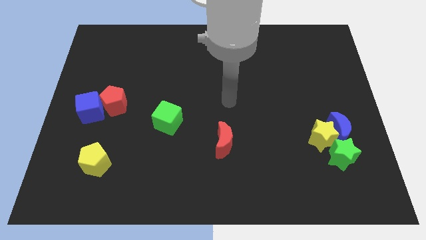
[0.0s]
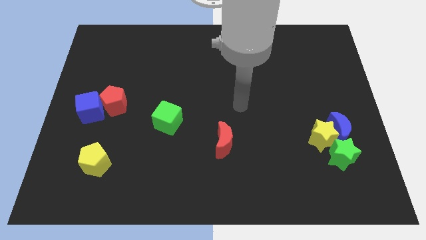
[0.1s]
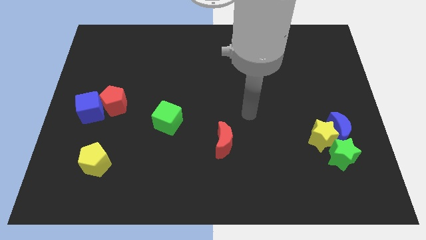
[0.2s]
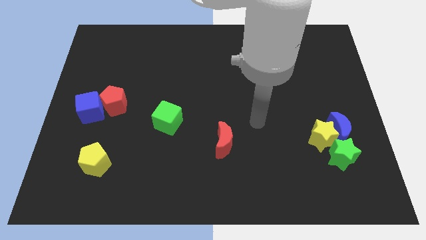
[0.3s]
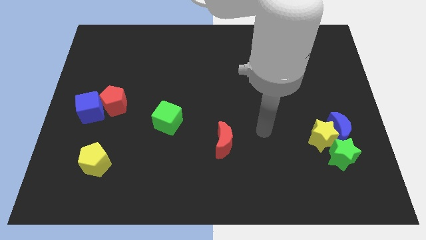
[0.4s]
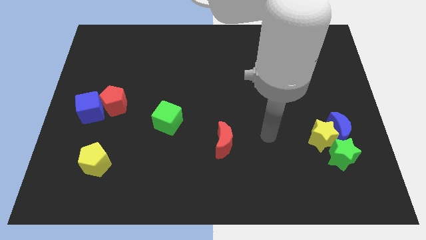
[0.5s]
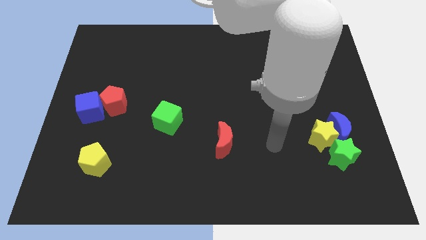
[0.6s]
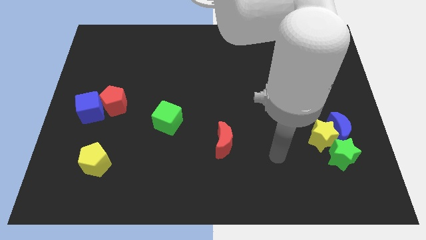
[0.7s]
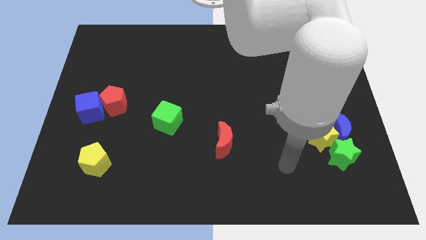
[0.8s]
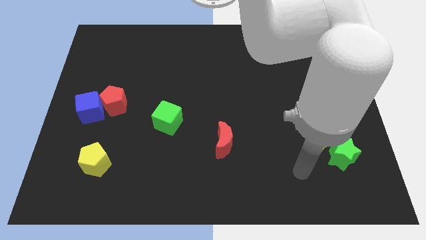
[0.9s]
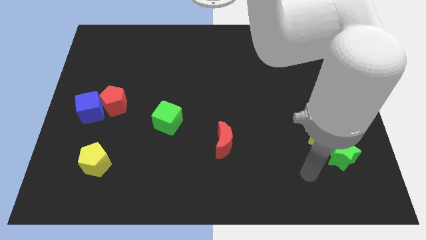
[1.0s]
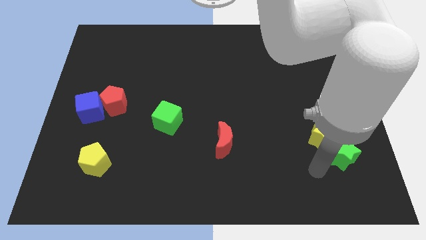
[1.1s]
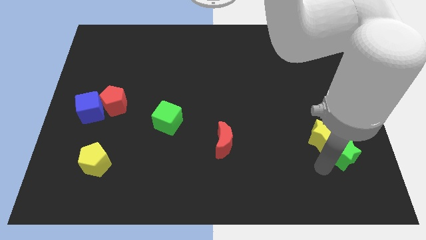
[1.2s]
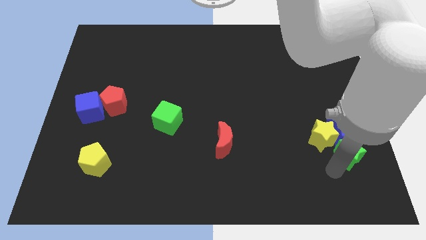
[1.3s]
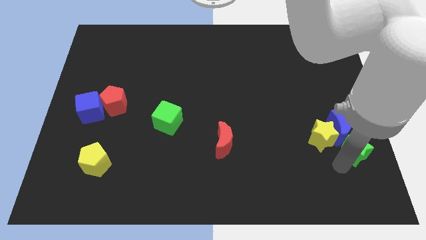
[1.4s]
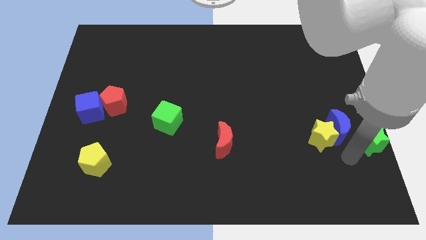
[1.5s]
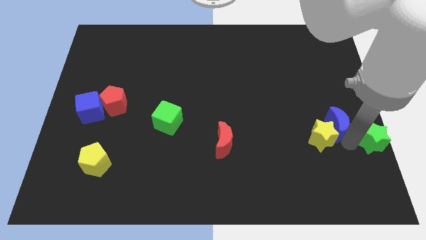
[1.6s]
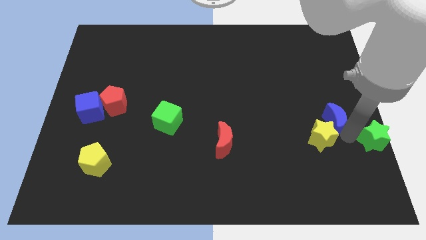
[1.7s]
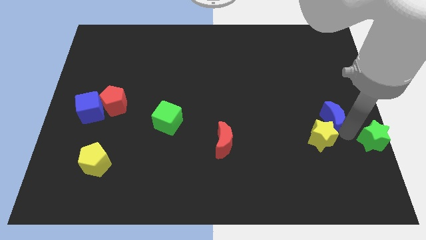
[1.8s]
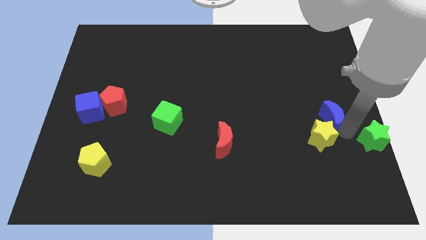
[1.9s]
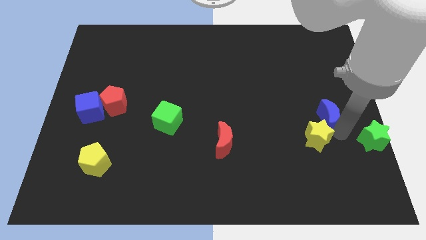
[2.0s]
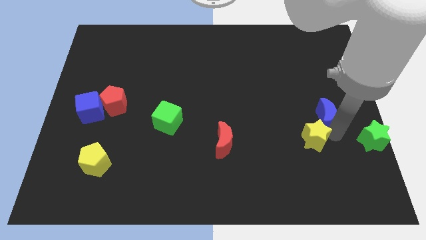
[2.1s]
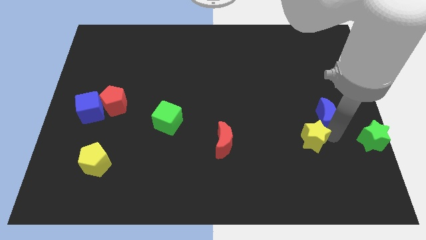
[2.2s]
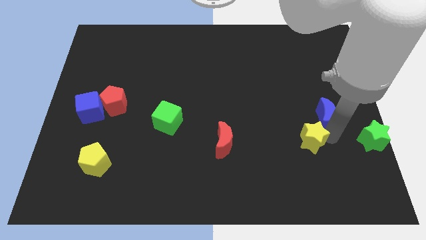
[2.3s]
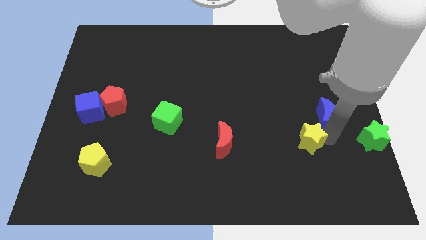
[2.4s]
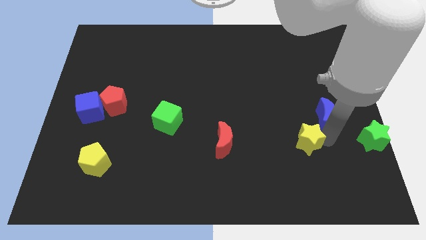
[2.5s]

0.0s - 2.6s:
separate the yellow star from the blue moon and green star

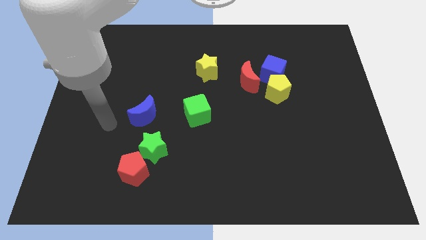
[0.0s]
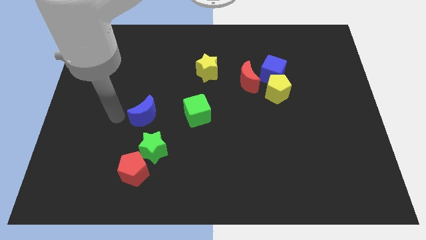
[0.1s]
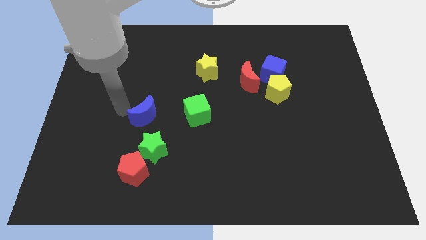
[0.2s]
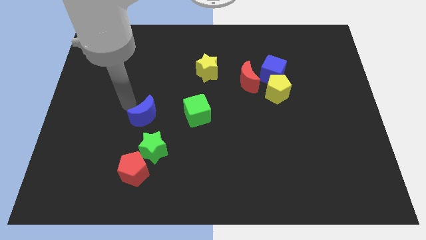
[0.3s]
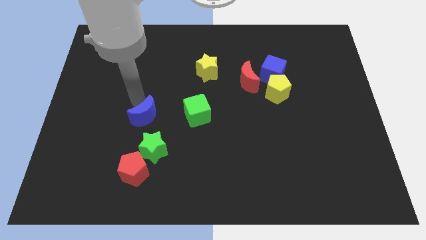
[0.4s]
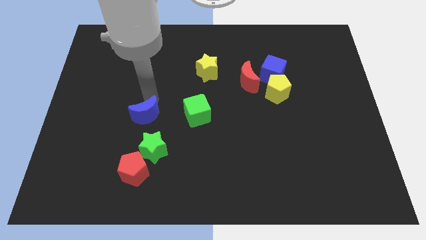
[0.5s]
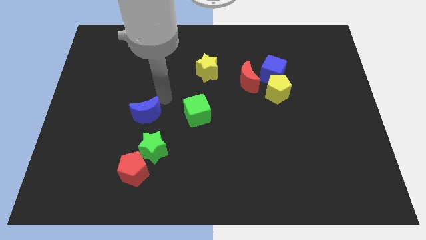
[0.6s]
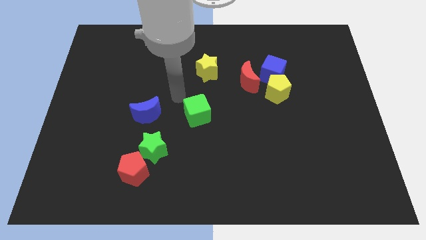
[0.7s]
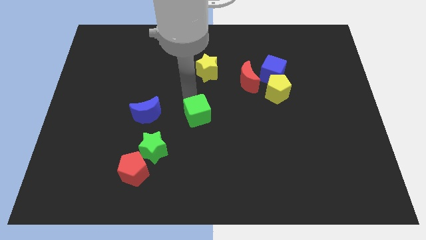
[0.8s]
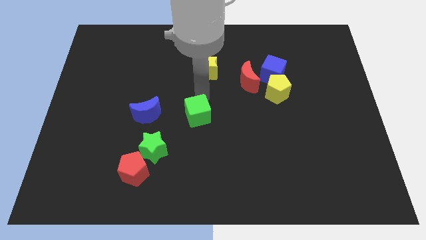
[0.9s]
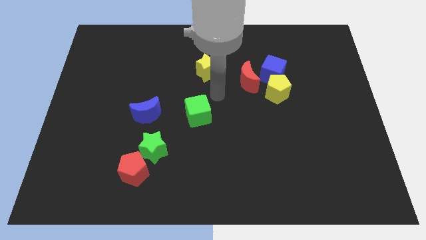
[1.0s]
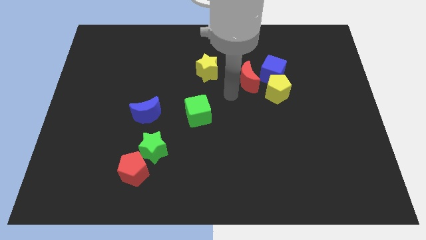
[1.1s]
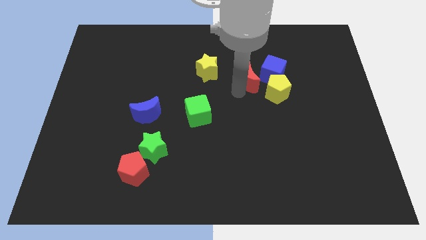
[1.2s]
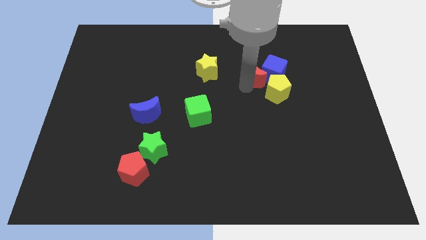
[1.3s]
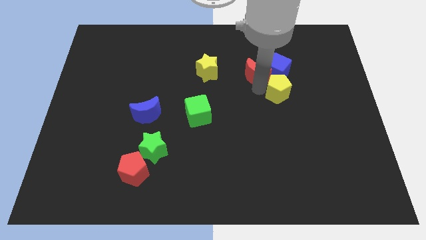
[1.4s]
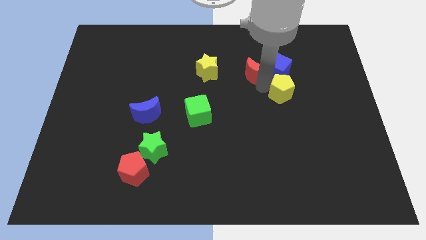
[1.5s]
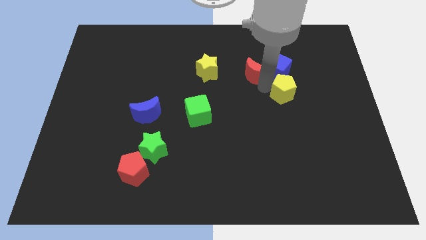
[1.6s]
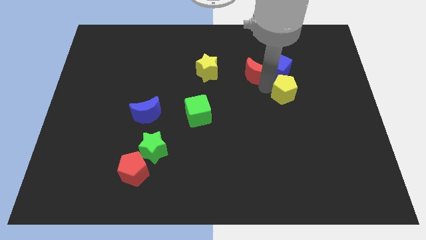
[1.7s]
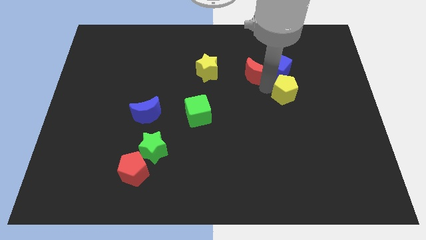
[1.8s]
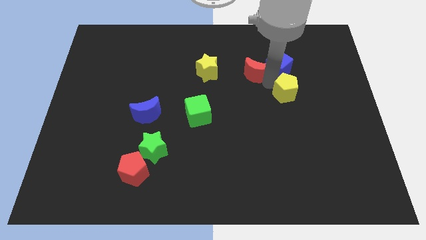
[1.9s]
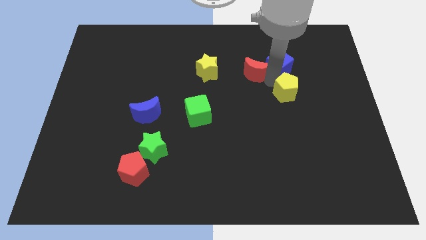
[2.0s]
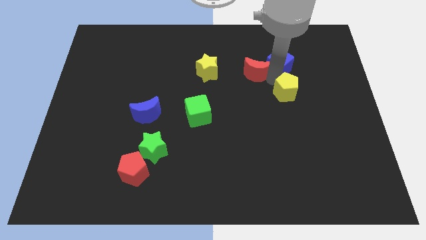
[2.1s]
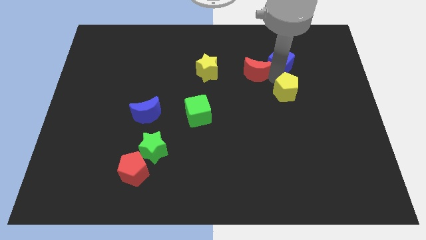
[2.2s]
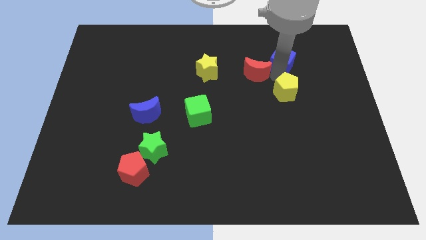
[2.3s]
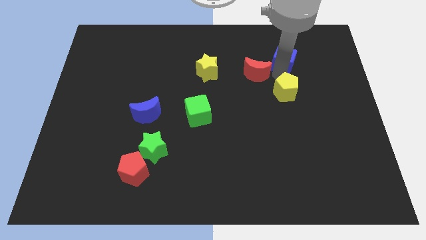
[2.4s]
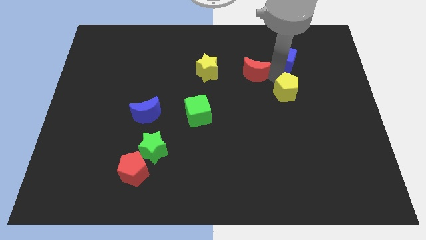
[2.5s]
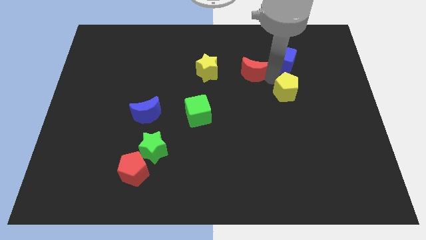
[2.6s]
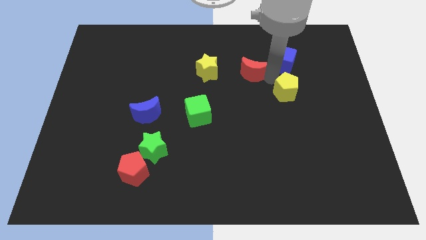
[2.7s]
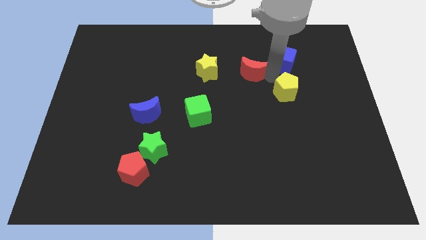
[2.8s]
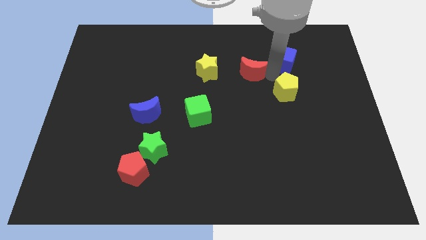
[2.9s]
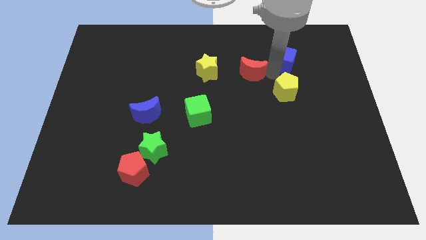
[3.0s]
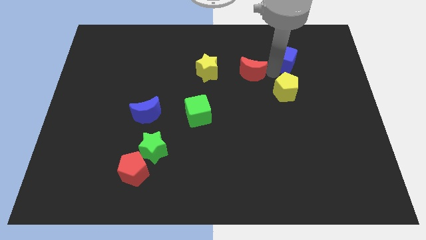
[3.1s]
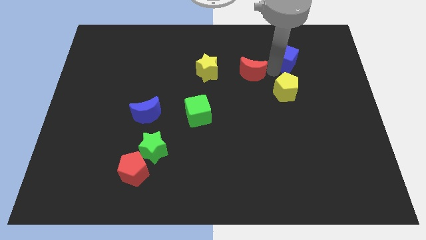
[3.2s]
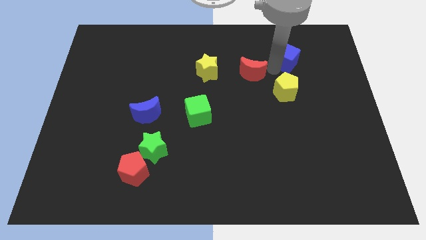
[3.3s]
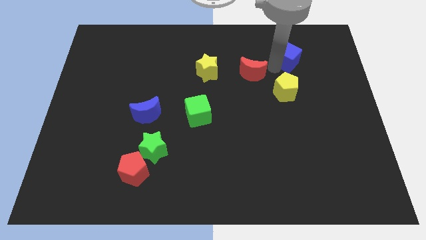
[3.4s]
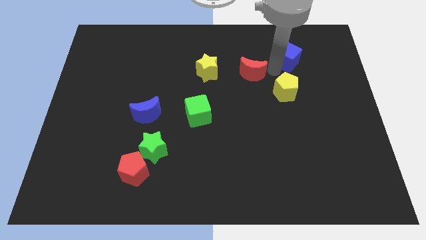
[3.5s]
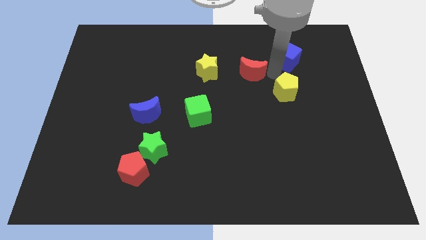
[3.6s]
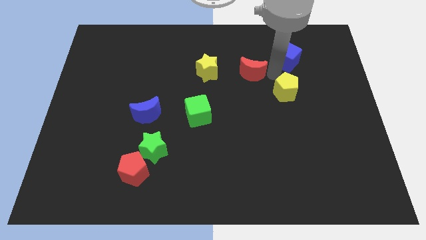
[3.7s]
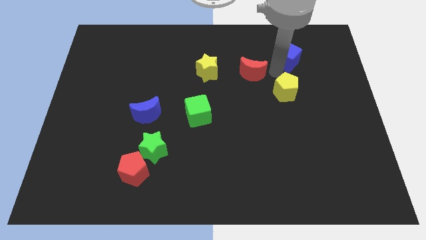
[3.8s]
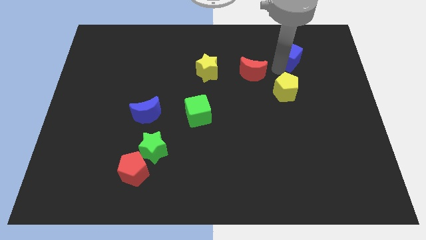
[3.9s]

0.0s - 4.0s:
separate the blue cube from the yellow pentagon and red moon

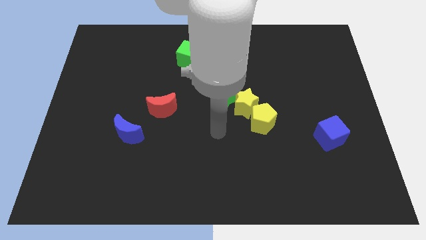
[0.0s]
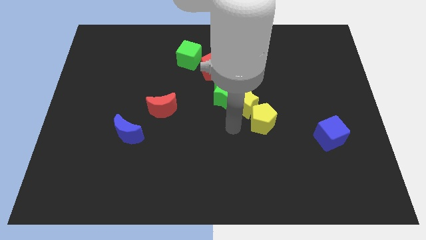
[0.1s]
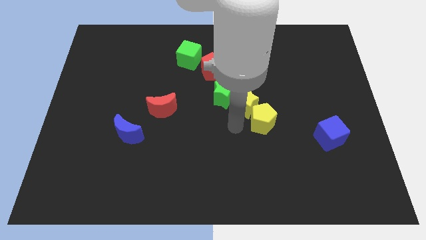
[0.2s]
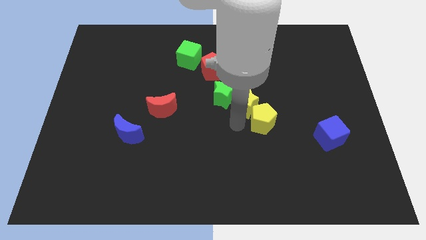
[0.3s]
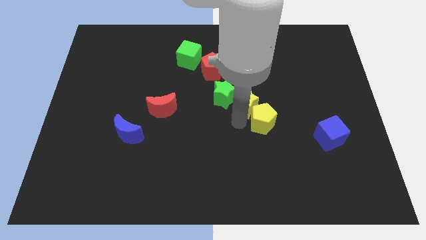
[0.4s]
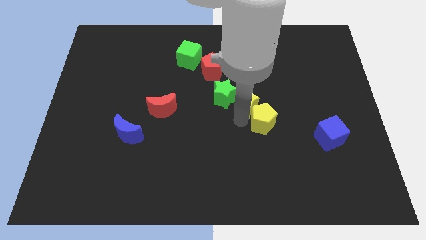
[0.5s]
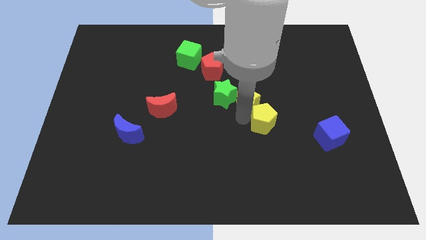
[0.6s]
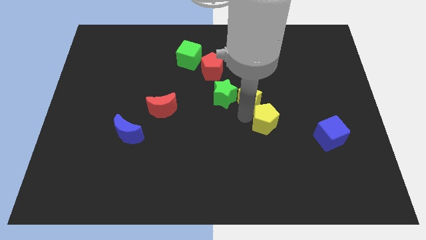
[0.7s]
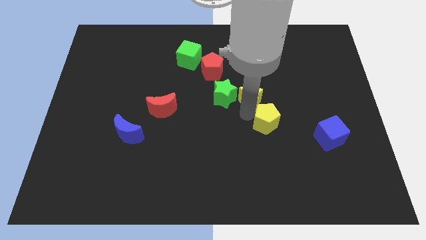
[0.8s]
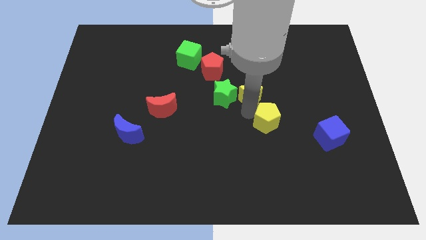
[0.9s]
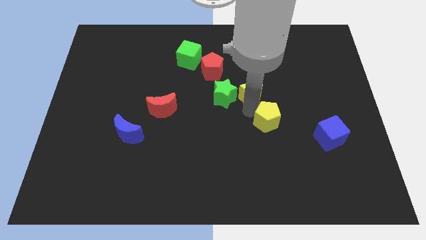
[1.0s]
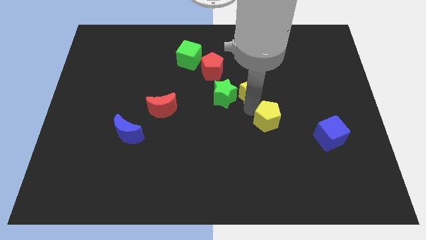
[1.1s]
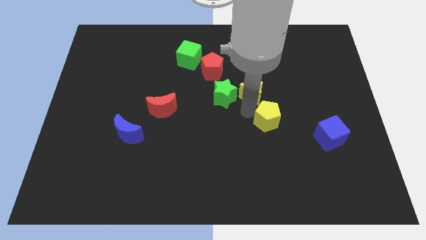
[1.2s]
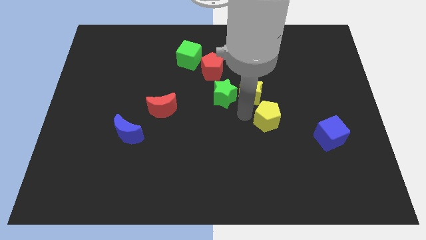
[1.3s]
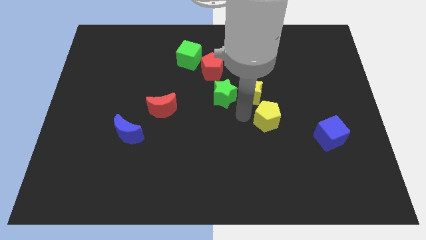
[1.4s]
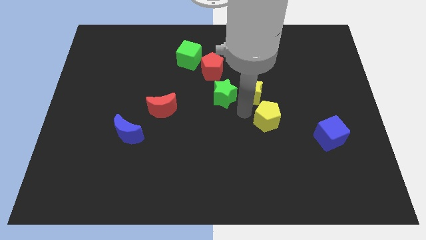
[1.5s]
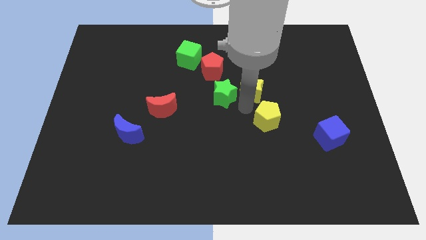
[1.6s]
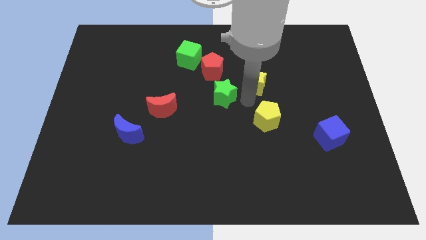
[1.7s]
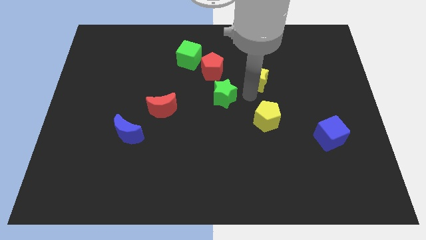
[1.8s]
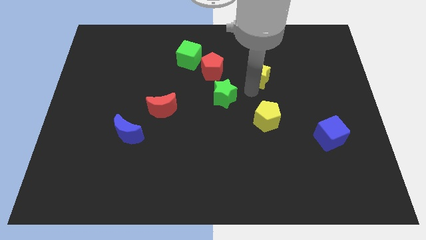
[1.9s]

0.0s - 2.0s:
pull the yellow star apart from the green star and yellow pentagon

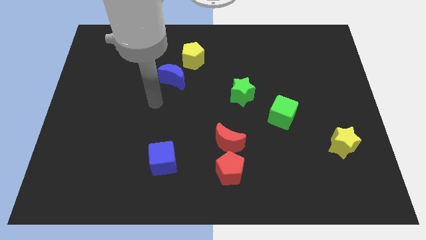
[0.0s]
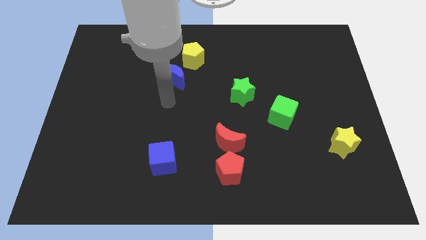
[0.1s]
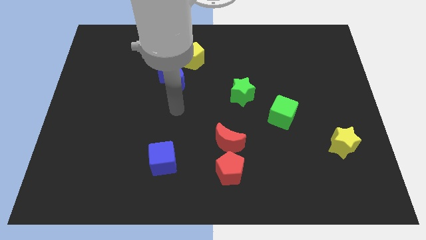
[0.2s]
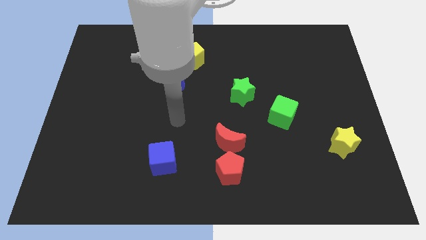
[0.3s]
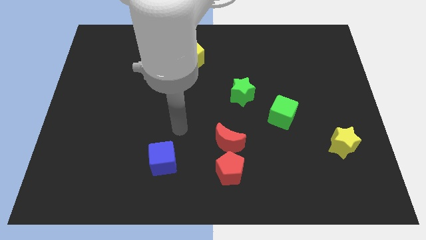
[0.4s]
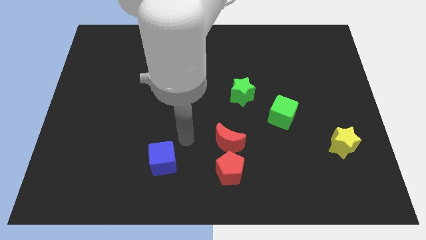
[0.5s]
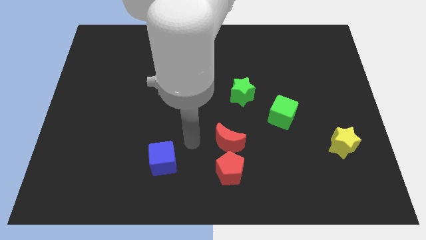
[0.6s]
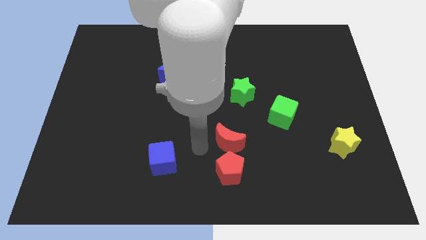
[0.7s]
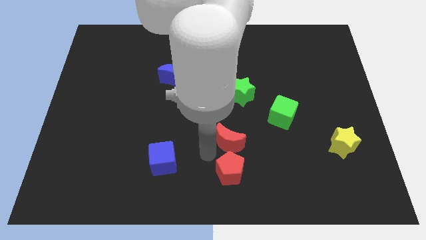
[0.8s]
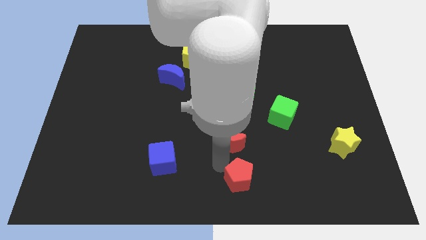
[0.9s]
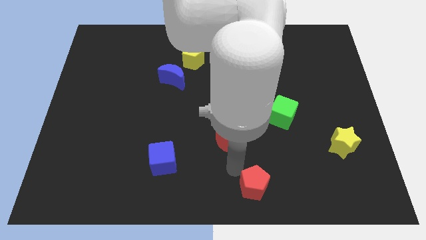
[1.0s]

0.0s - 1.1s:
pull the red moon apart from the red pentagon
